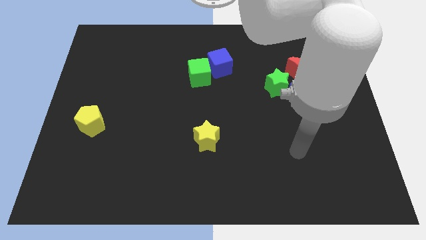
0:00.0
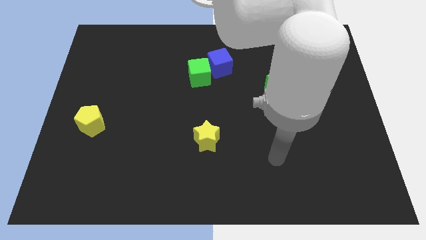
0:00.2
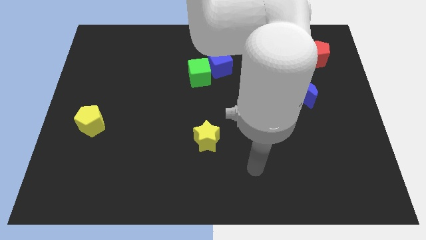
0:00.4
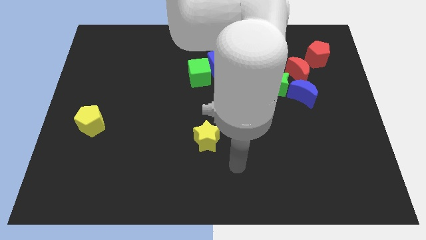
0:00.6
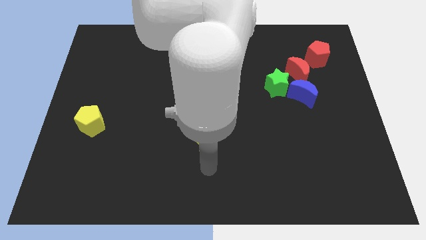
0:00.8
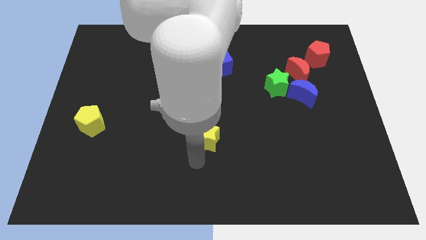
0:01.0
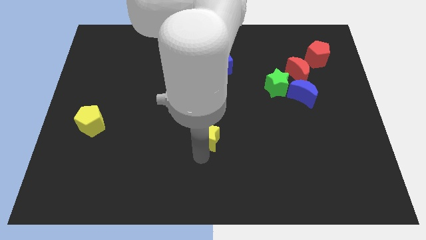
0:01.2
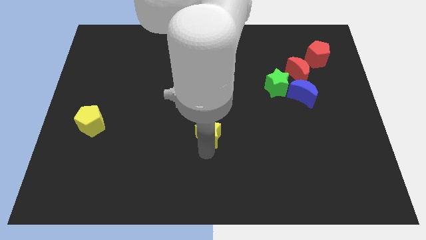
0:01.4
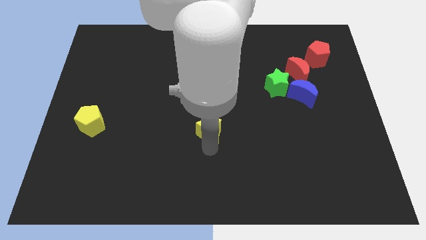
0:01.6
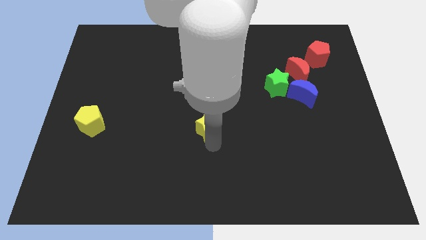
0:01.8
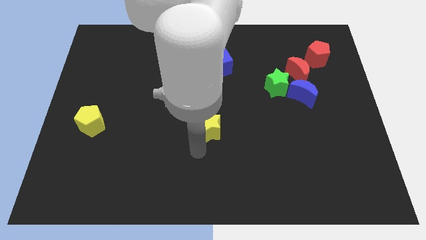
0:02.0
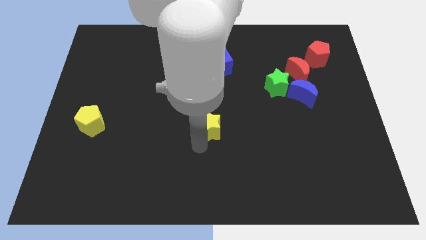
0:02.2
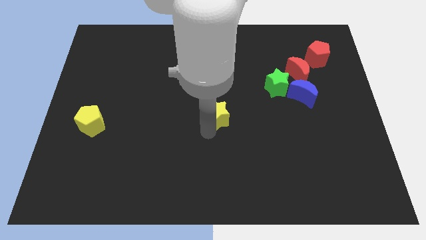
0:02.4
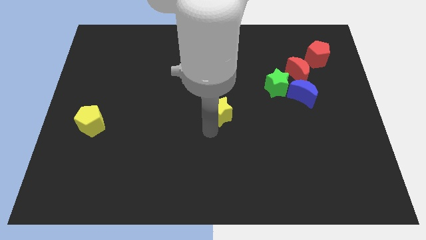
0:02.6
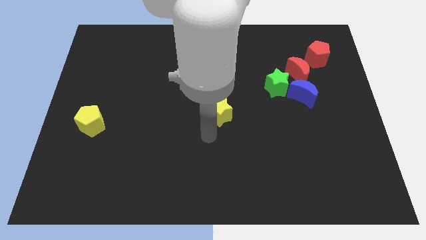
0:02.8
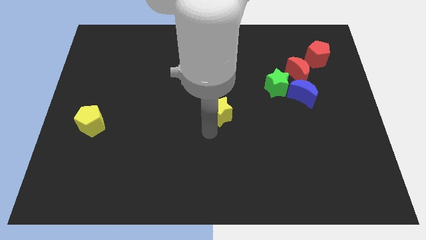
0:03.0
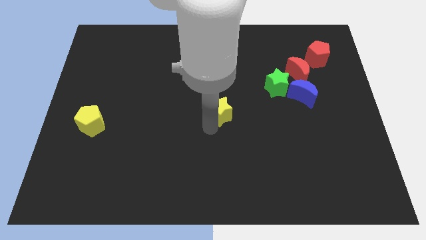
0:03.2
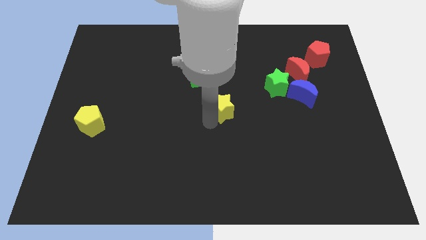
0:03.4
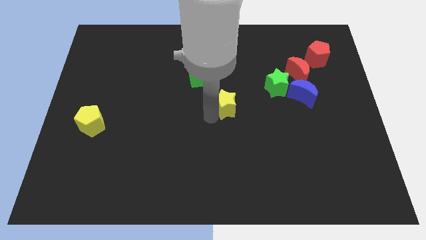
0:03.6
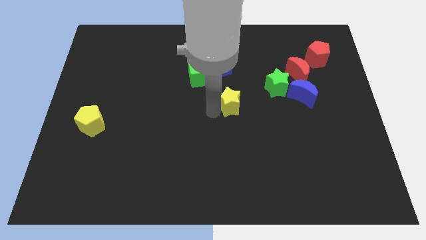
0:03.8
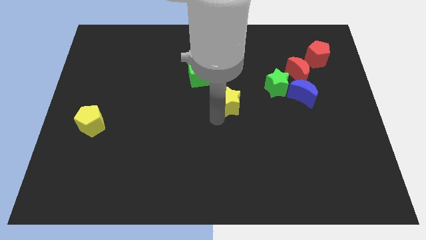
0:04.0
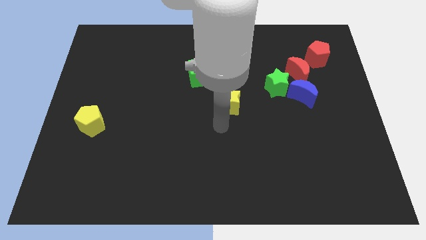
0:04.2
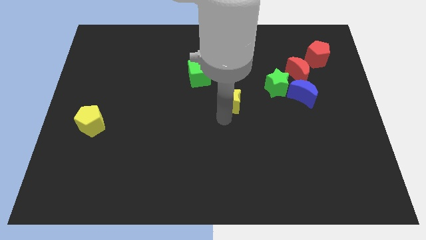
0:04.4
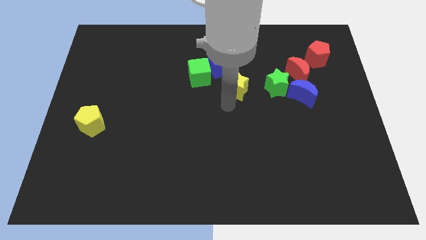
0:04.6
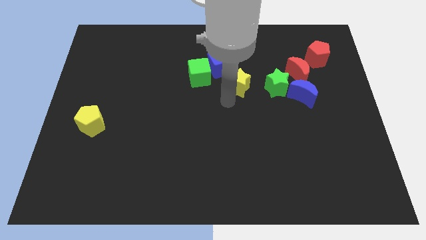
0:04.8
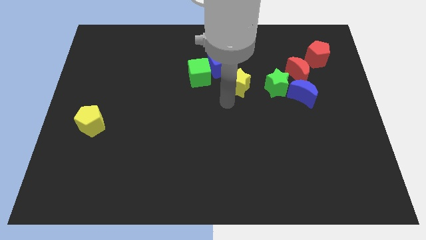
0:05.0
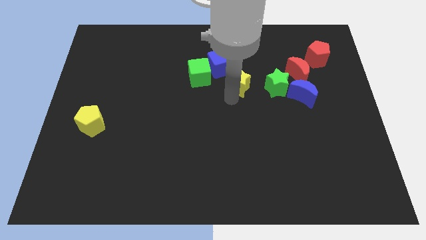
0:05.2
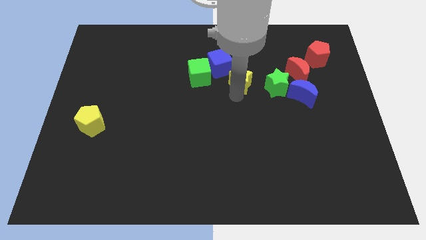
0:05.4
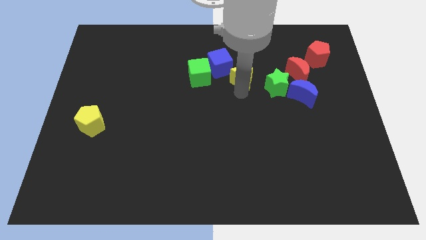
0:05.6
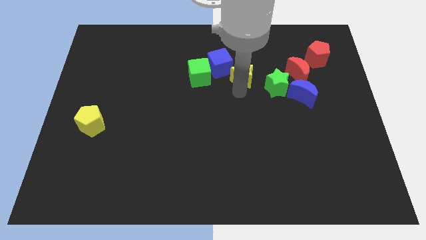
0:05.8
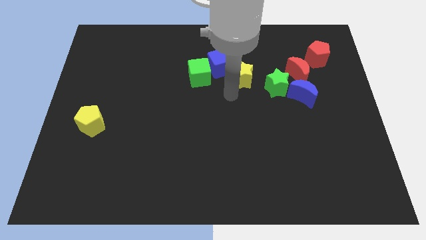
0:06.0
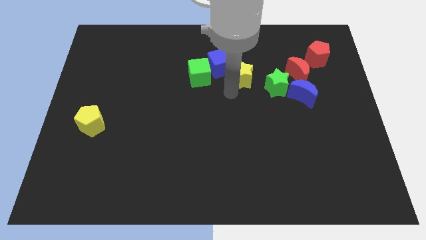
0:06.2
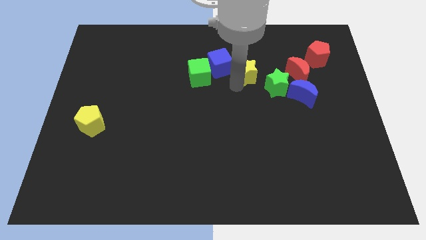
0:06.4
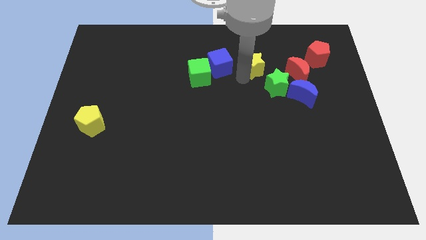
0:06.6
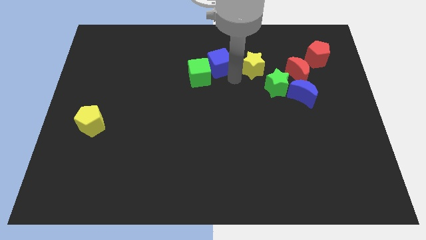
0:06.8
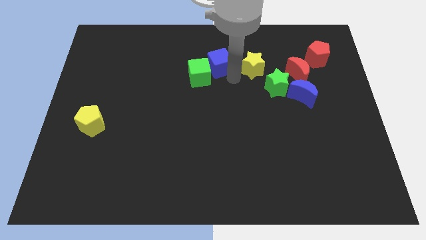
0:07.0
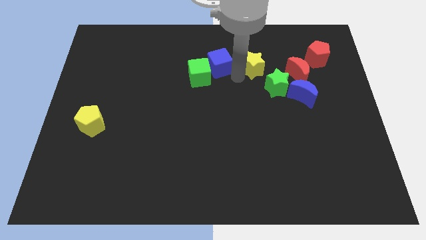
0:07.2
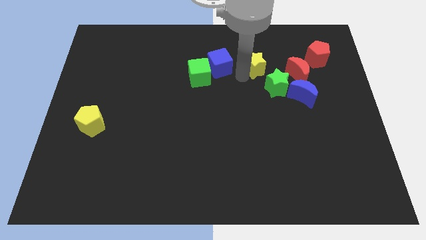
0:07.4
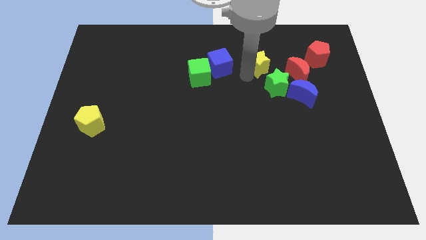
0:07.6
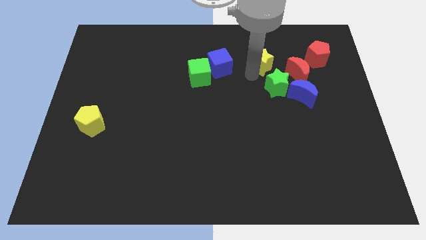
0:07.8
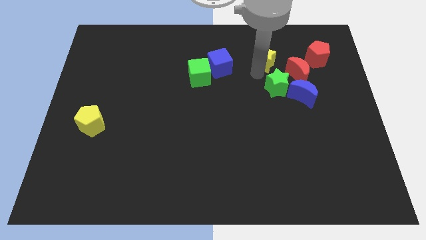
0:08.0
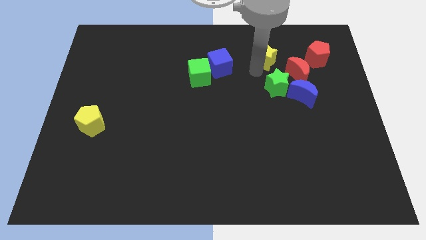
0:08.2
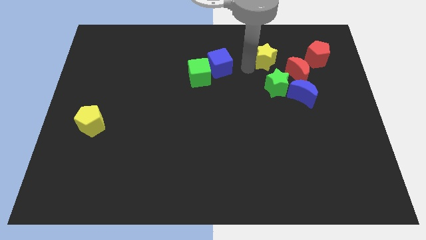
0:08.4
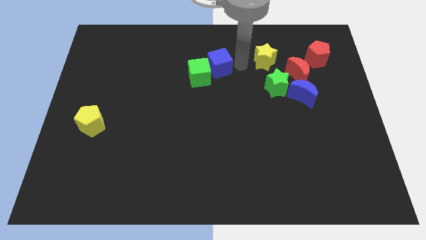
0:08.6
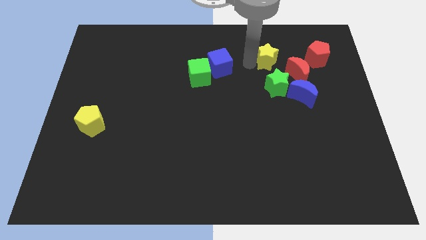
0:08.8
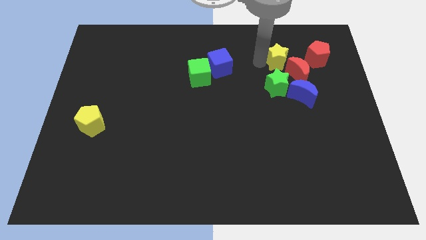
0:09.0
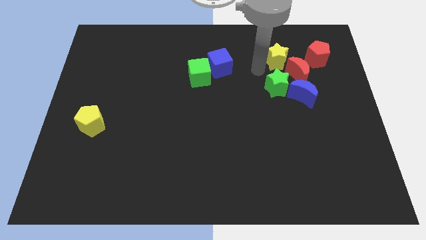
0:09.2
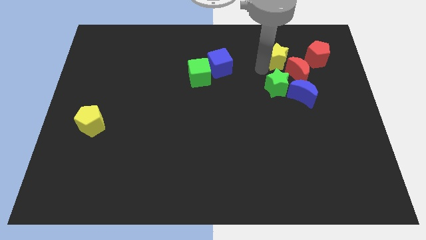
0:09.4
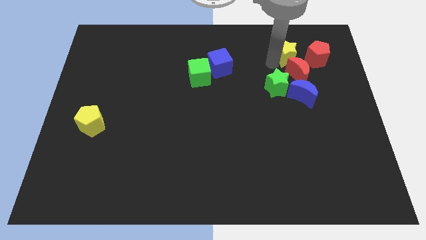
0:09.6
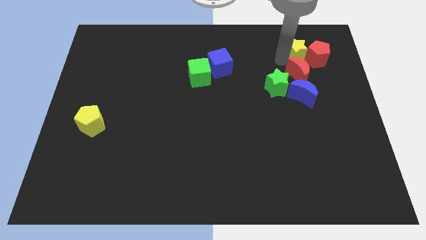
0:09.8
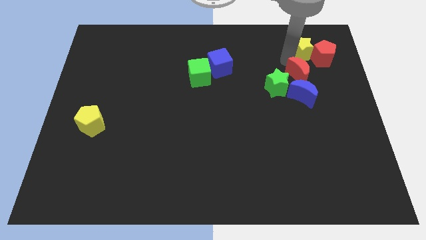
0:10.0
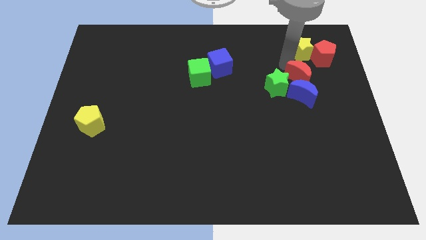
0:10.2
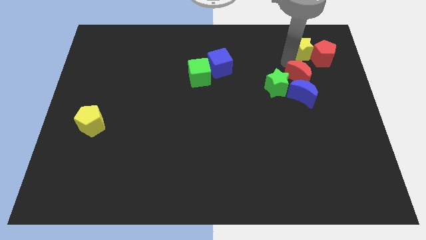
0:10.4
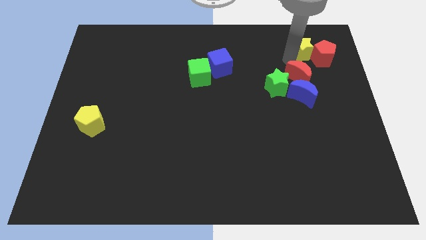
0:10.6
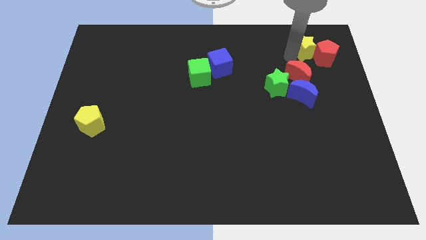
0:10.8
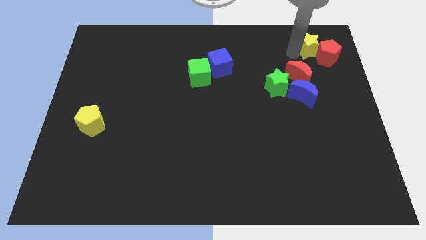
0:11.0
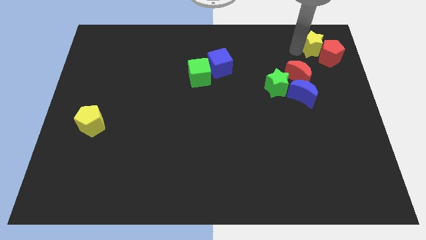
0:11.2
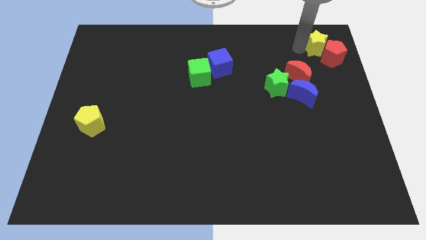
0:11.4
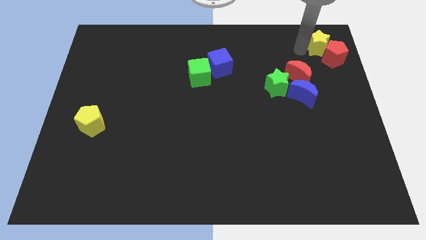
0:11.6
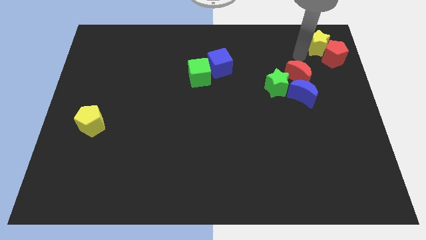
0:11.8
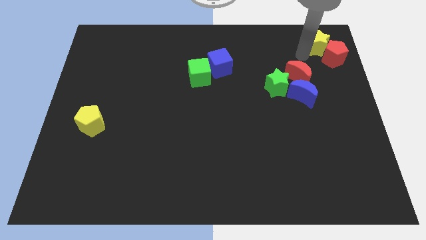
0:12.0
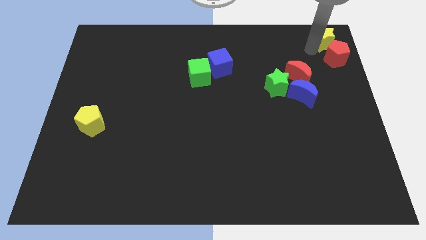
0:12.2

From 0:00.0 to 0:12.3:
slide the yellow star to the upper right corner

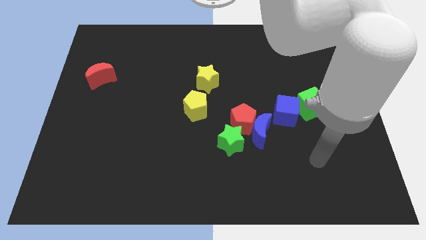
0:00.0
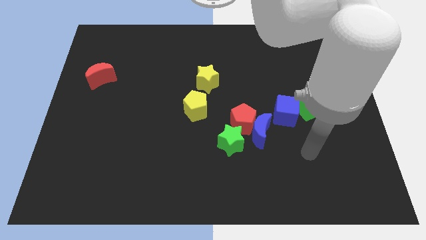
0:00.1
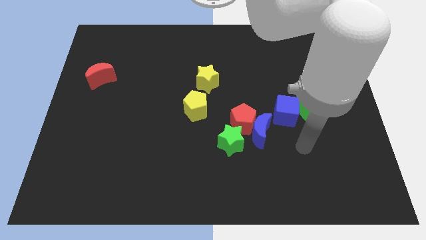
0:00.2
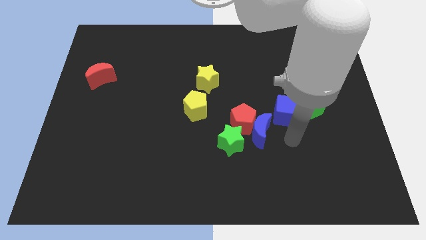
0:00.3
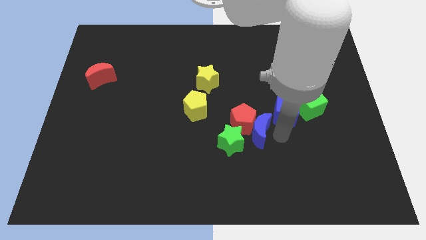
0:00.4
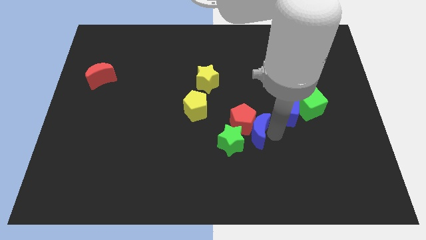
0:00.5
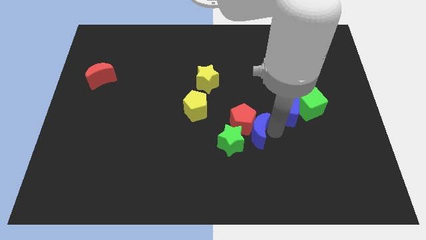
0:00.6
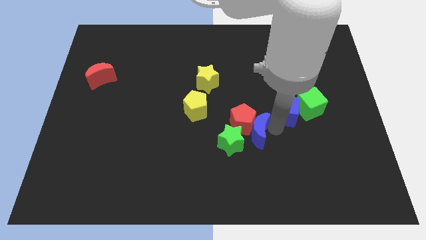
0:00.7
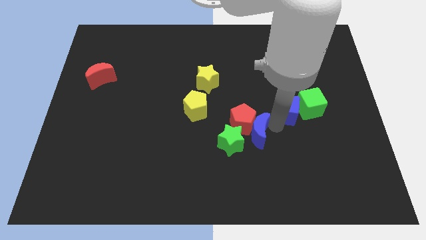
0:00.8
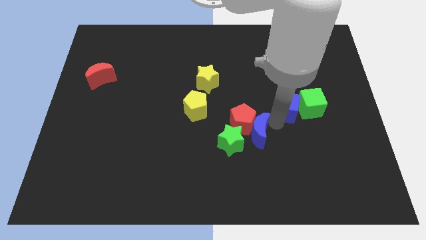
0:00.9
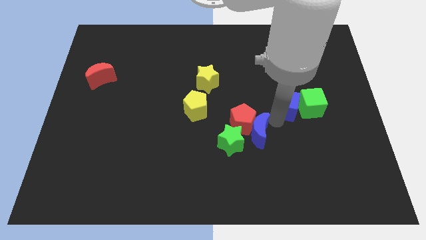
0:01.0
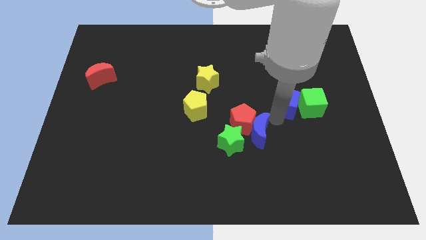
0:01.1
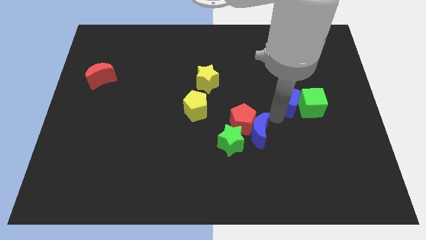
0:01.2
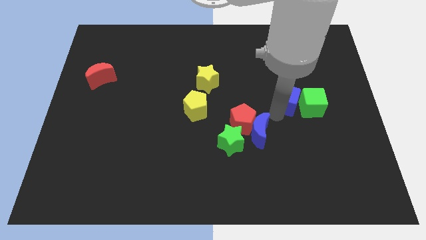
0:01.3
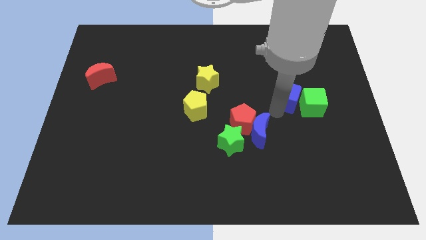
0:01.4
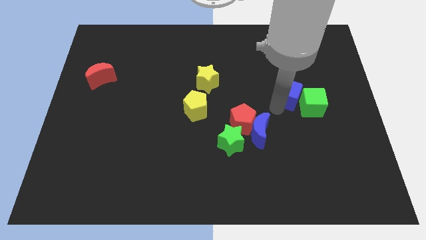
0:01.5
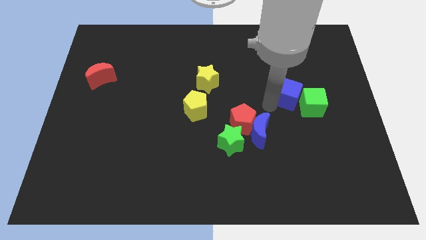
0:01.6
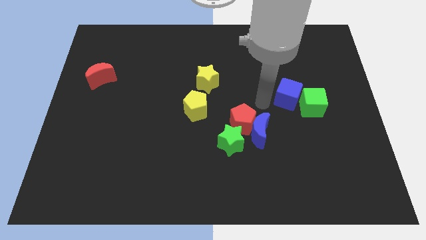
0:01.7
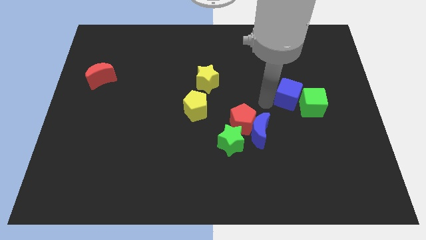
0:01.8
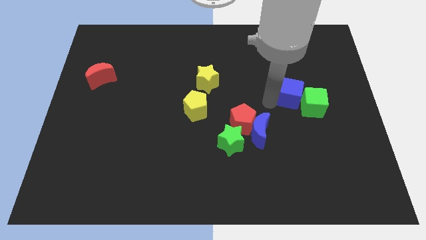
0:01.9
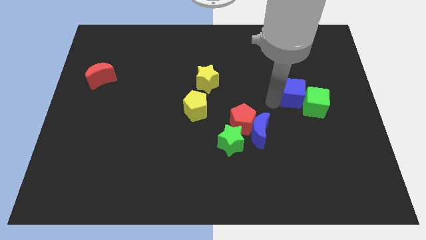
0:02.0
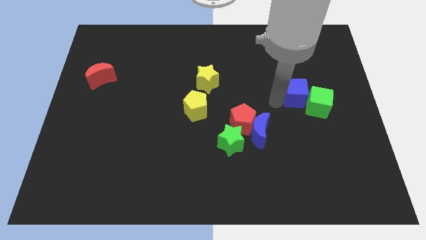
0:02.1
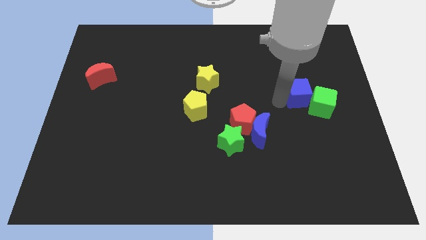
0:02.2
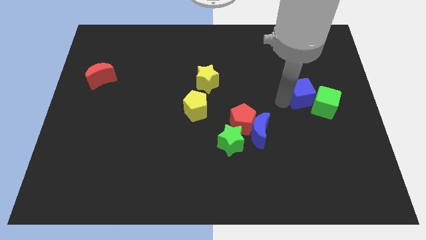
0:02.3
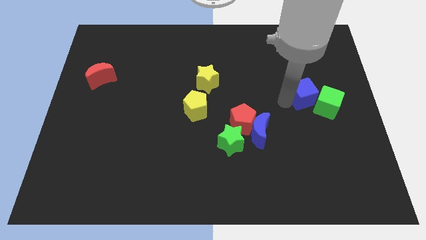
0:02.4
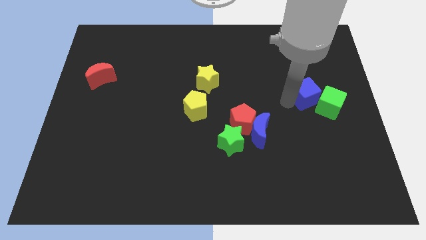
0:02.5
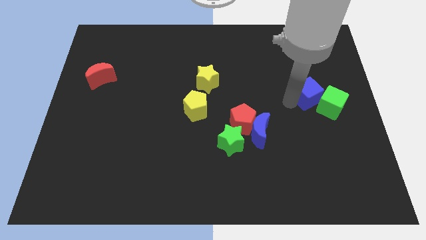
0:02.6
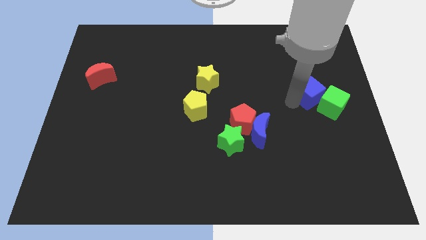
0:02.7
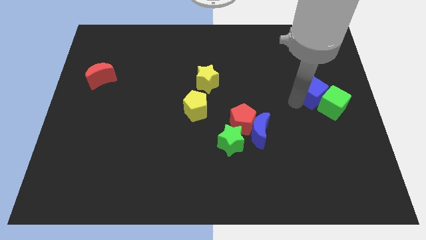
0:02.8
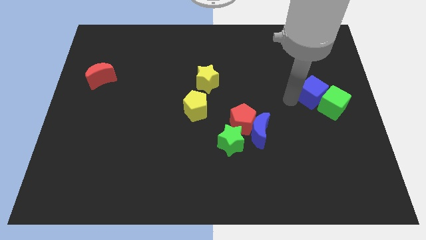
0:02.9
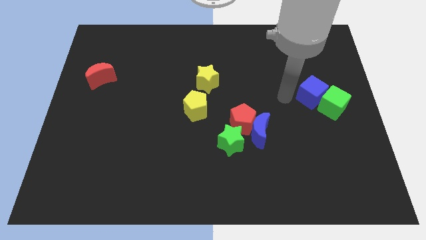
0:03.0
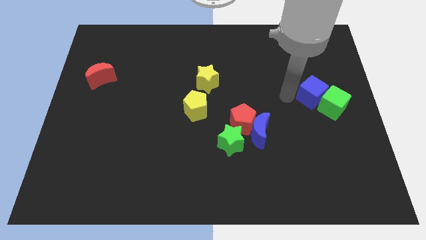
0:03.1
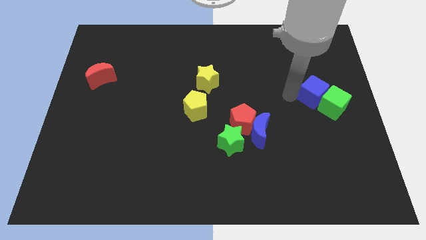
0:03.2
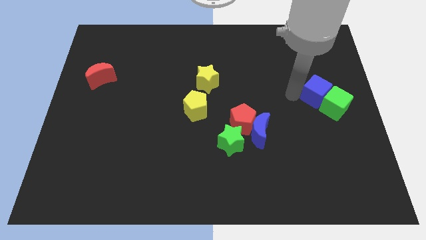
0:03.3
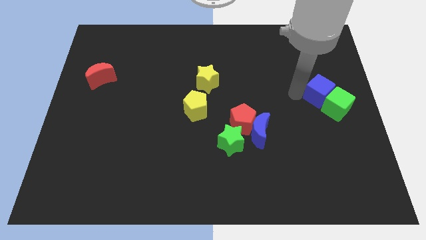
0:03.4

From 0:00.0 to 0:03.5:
move the blue cube to the right side
